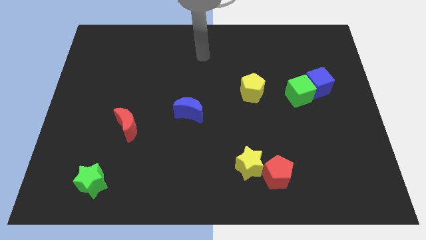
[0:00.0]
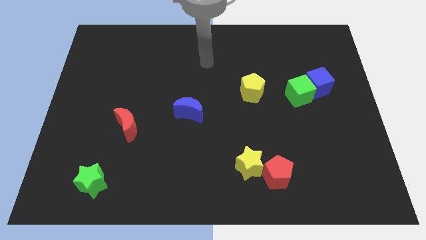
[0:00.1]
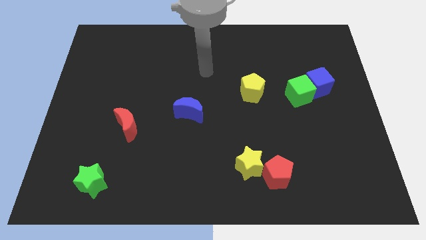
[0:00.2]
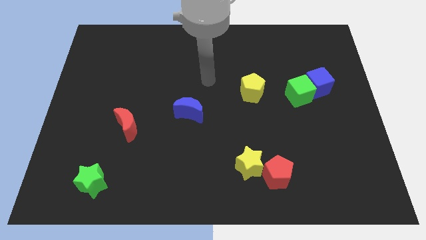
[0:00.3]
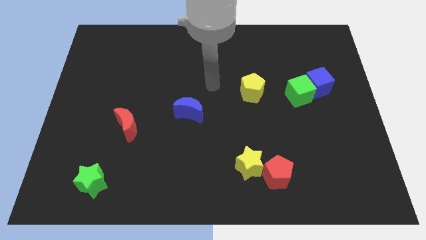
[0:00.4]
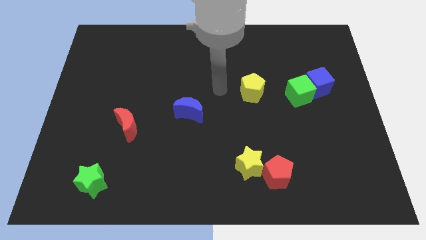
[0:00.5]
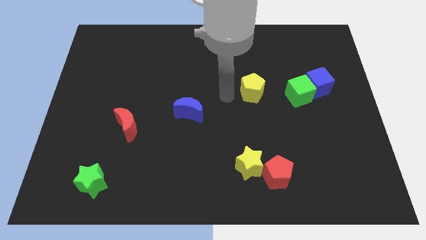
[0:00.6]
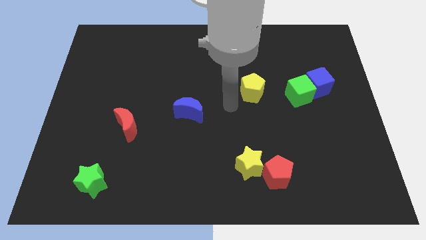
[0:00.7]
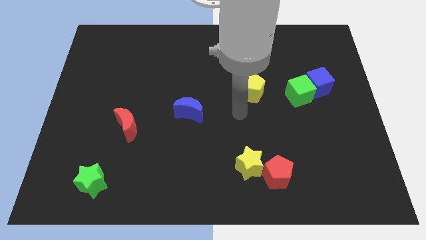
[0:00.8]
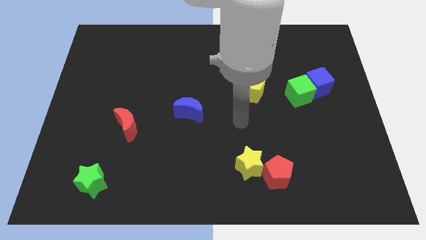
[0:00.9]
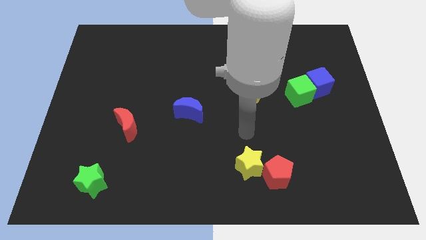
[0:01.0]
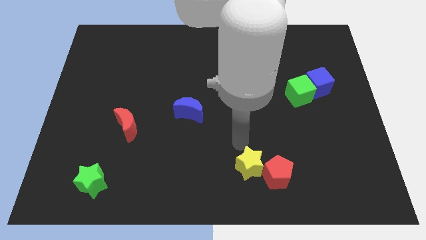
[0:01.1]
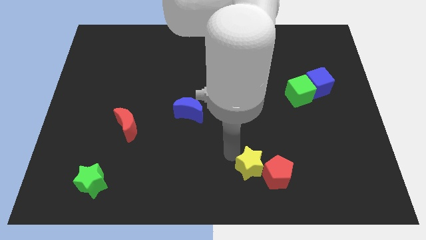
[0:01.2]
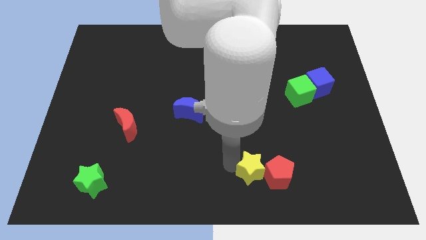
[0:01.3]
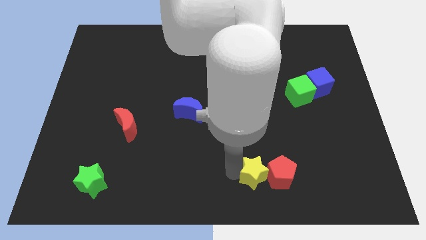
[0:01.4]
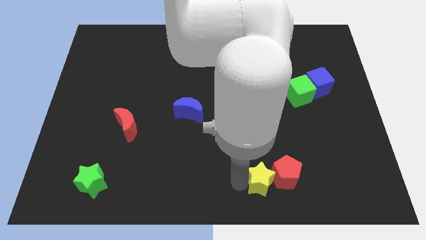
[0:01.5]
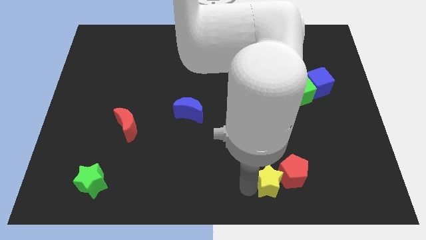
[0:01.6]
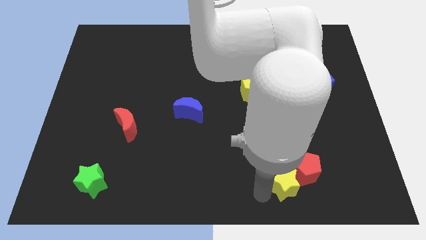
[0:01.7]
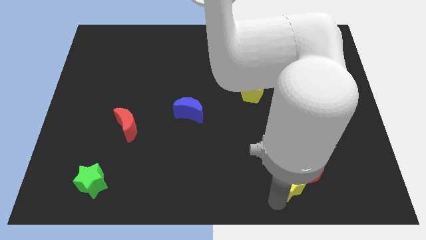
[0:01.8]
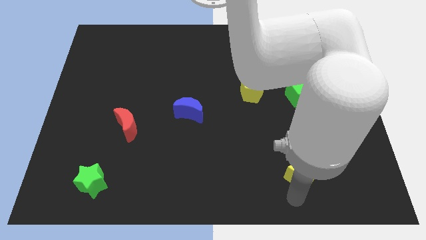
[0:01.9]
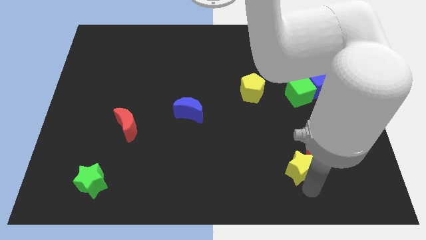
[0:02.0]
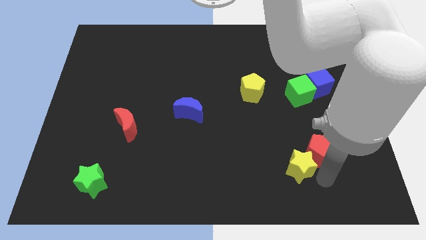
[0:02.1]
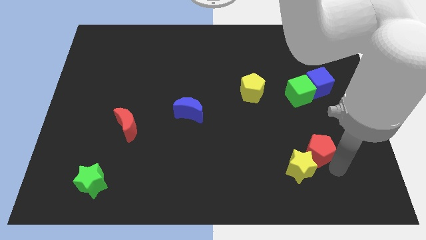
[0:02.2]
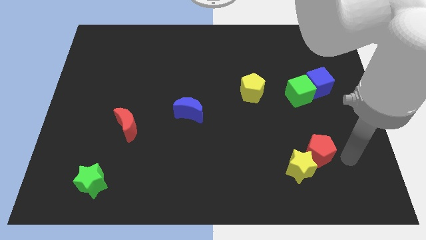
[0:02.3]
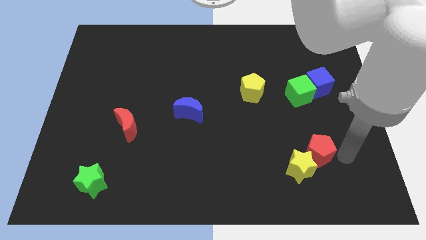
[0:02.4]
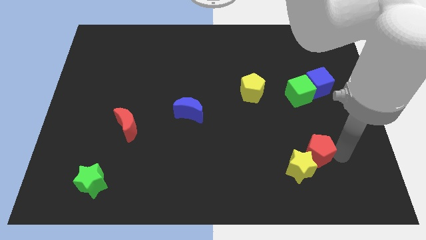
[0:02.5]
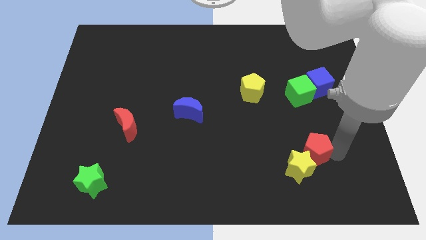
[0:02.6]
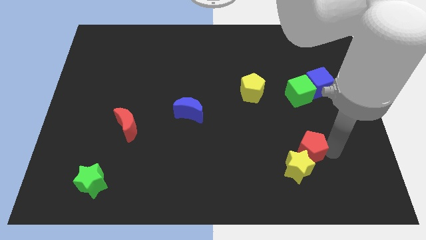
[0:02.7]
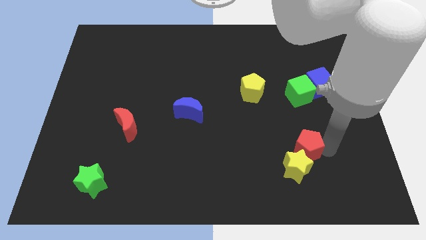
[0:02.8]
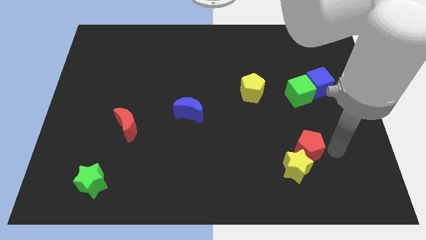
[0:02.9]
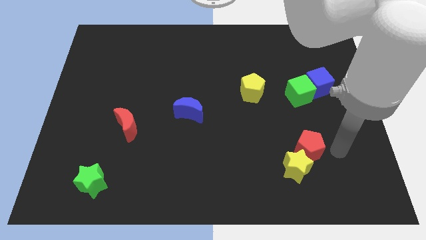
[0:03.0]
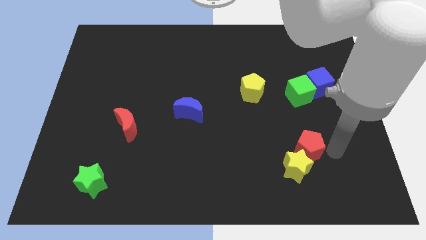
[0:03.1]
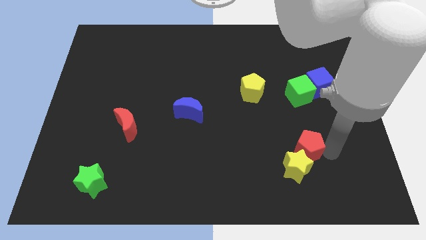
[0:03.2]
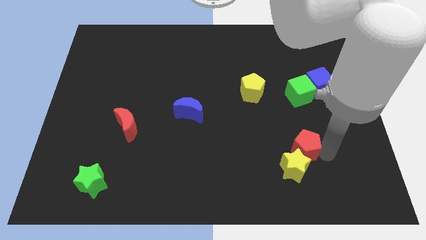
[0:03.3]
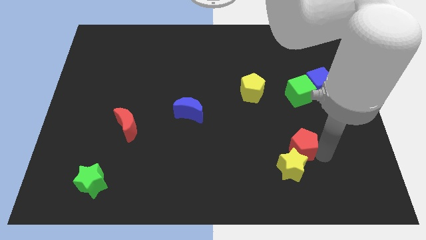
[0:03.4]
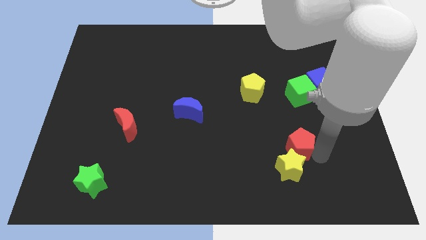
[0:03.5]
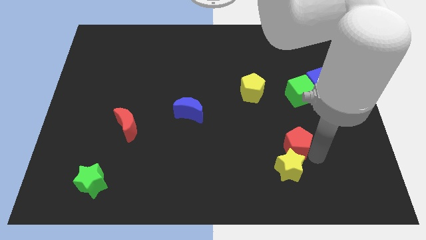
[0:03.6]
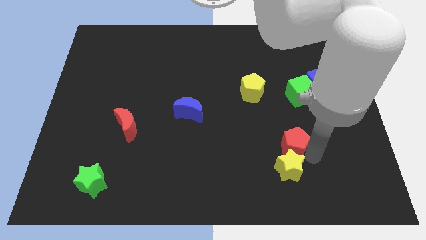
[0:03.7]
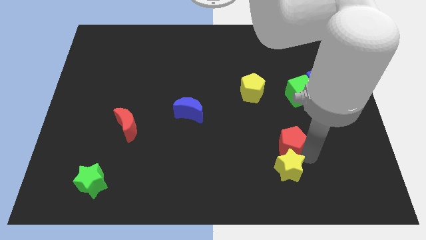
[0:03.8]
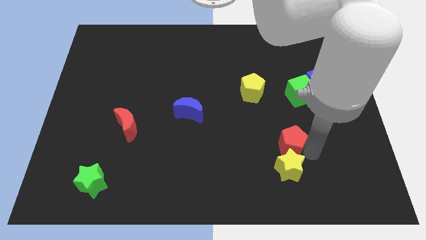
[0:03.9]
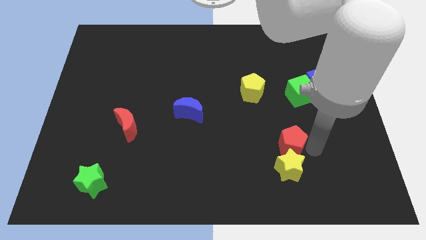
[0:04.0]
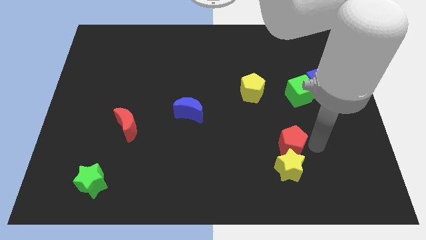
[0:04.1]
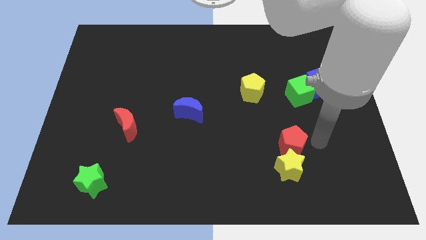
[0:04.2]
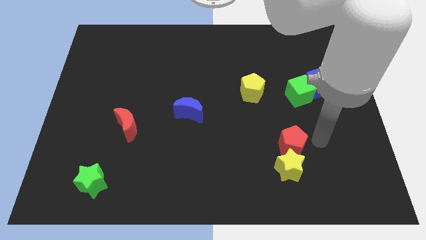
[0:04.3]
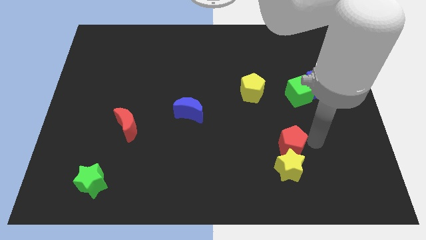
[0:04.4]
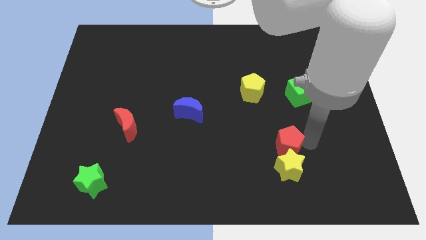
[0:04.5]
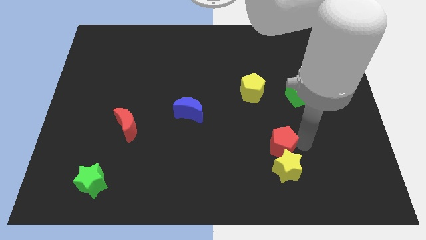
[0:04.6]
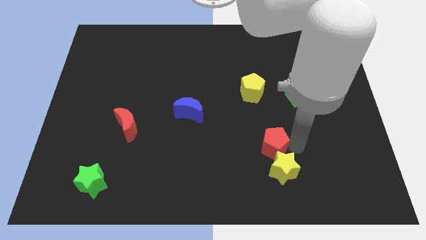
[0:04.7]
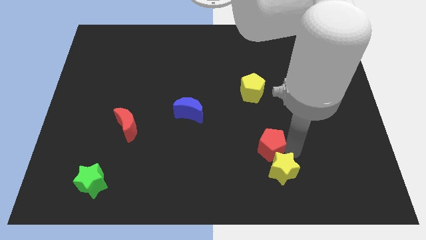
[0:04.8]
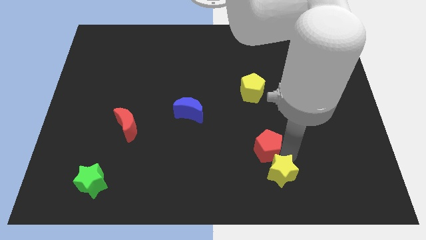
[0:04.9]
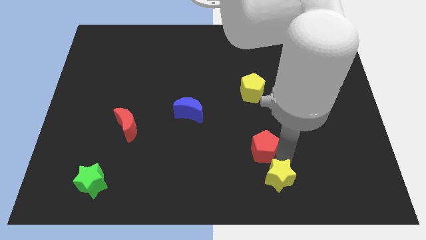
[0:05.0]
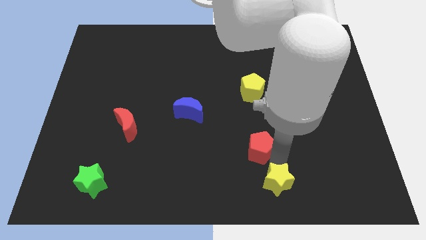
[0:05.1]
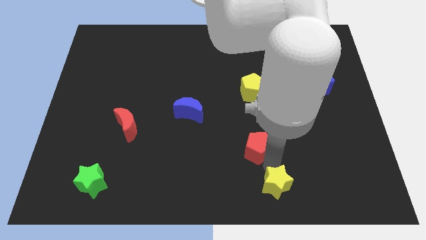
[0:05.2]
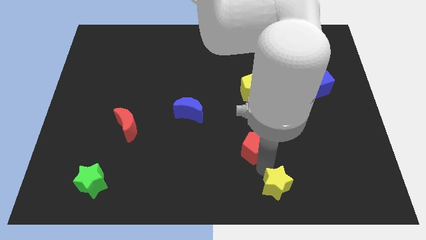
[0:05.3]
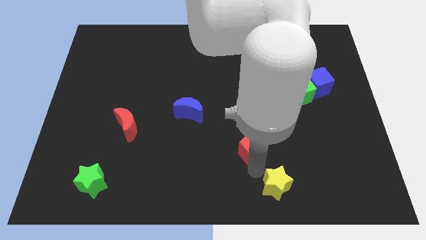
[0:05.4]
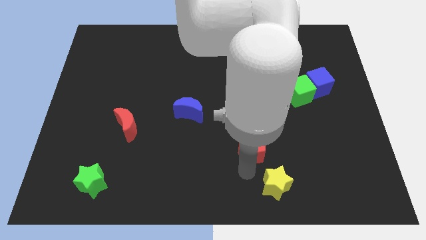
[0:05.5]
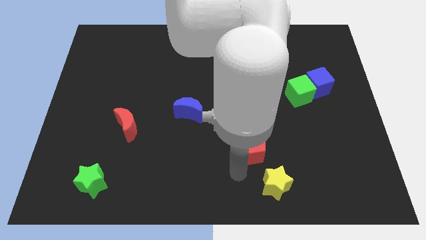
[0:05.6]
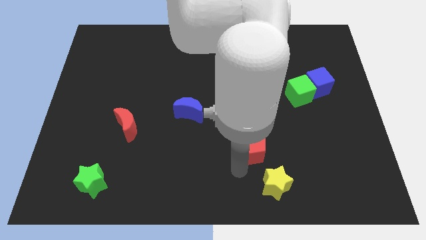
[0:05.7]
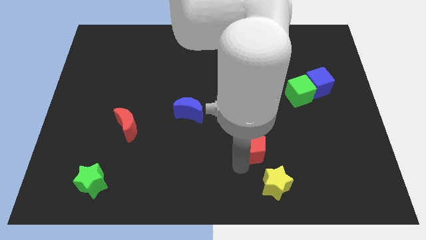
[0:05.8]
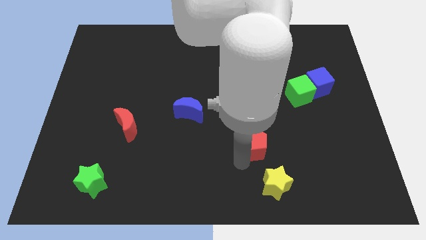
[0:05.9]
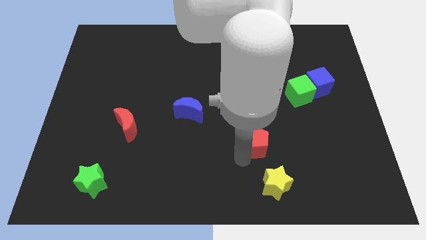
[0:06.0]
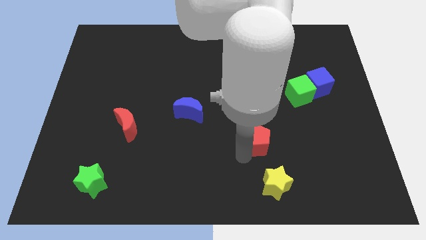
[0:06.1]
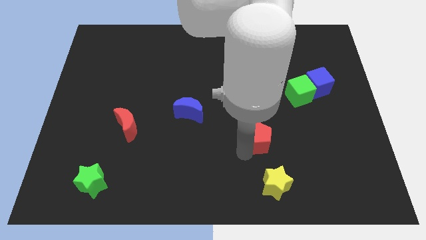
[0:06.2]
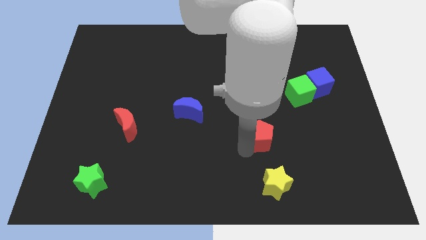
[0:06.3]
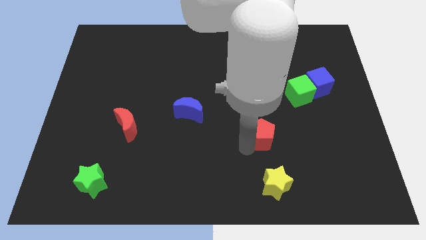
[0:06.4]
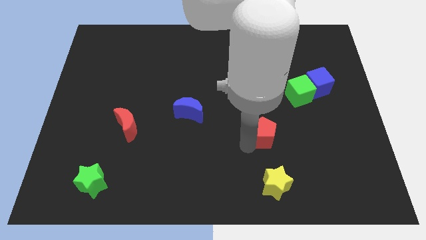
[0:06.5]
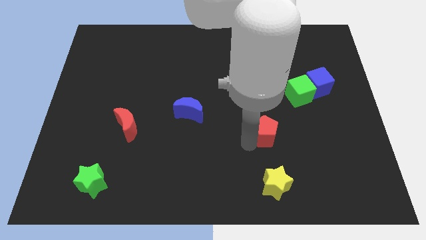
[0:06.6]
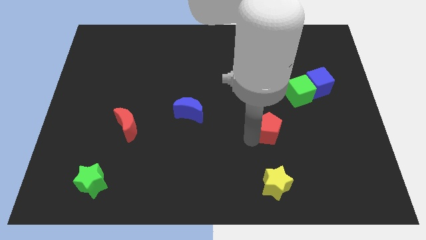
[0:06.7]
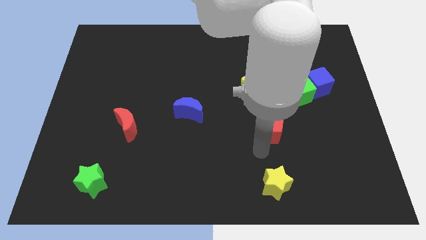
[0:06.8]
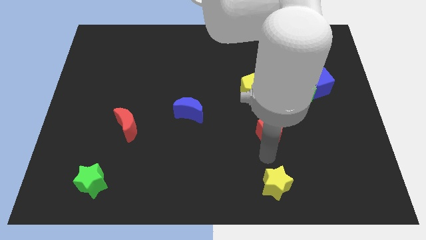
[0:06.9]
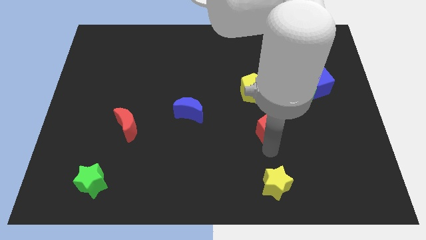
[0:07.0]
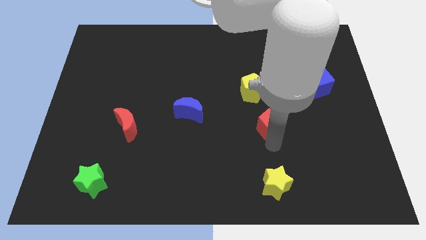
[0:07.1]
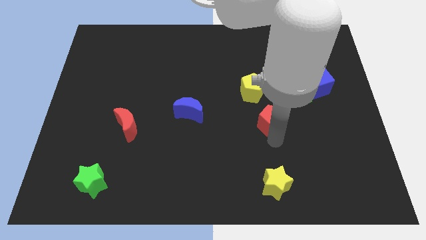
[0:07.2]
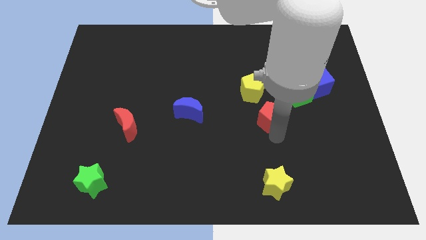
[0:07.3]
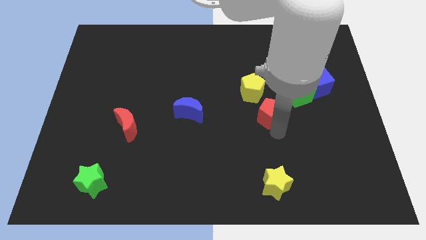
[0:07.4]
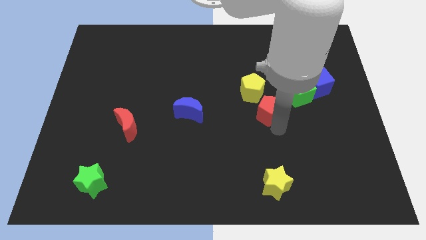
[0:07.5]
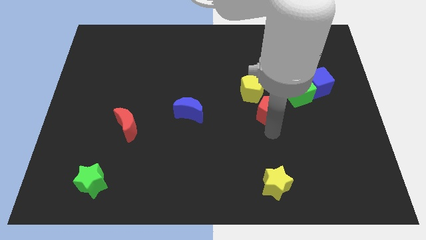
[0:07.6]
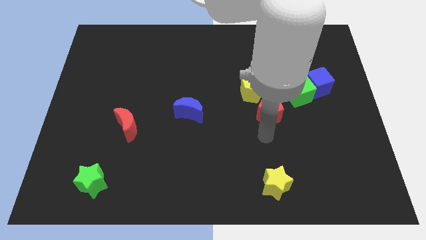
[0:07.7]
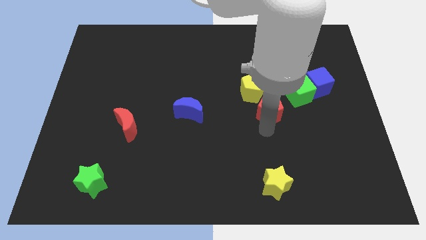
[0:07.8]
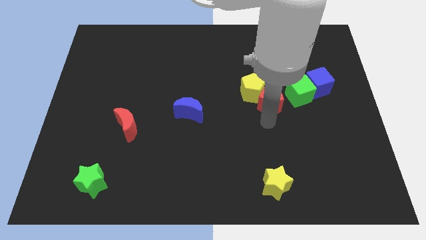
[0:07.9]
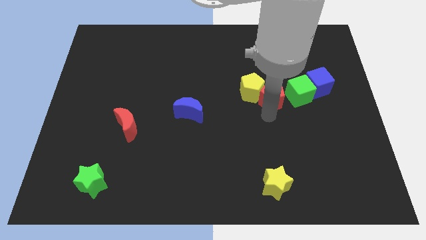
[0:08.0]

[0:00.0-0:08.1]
put the red pentagon to the left side of the blue cube
